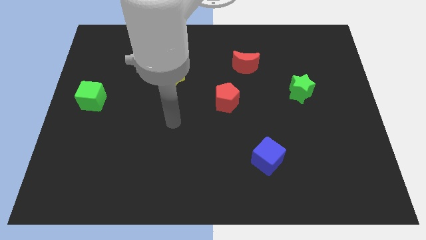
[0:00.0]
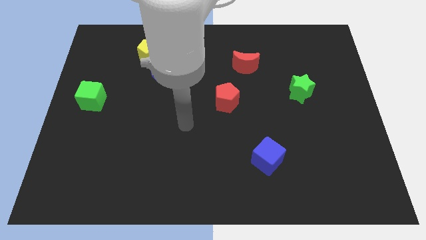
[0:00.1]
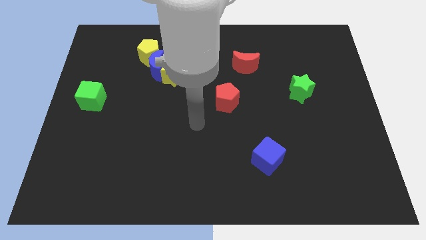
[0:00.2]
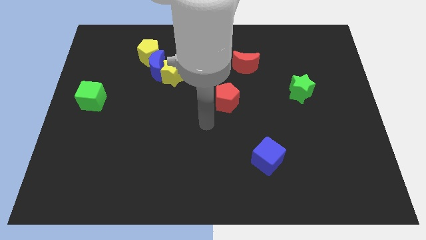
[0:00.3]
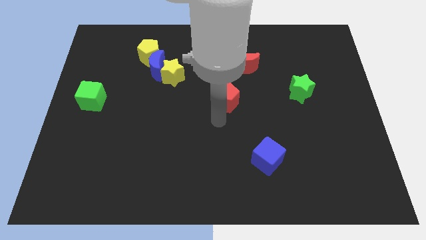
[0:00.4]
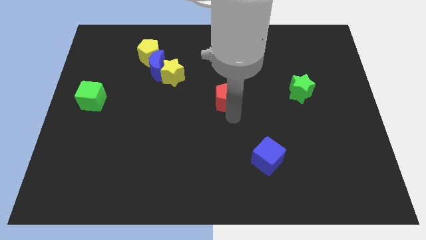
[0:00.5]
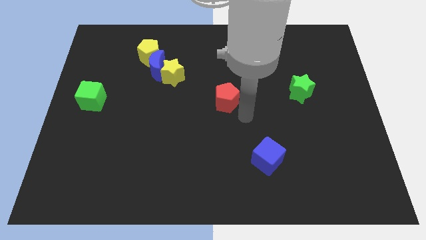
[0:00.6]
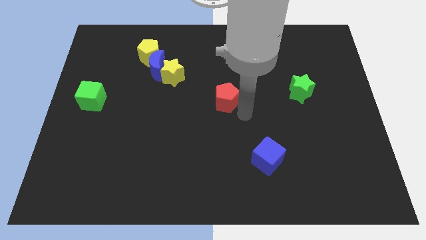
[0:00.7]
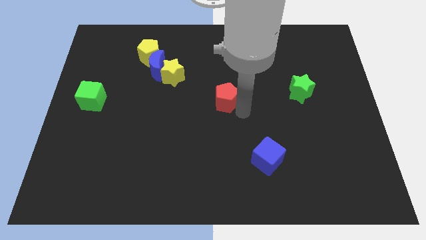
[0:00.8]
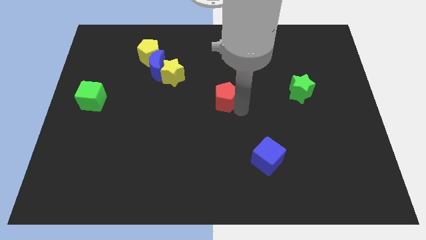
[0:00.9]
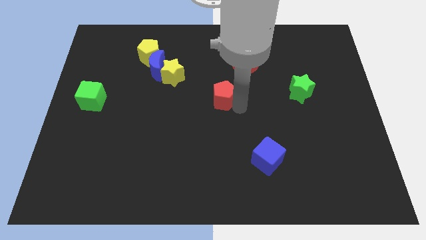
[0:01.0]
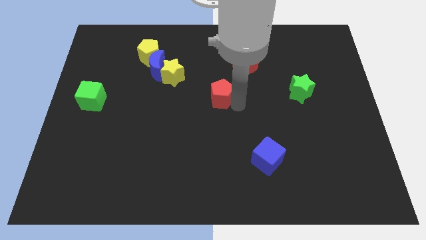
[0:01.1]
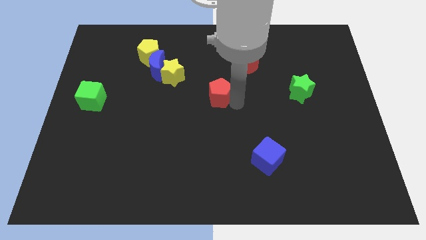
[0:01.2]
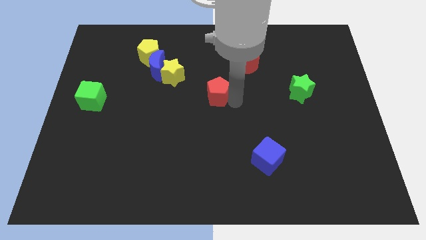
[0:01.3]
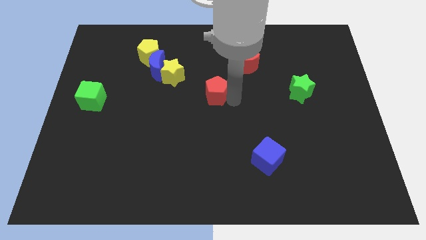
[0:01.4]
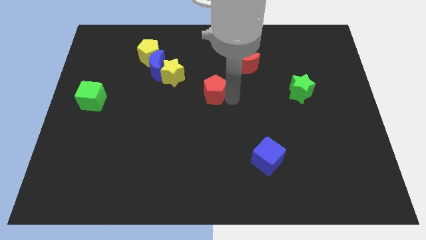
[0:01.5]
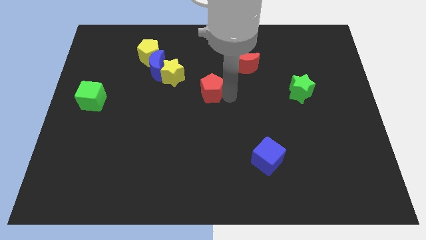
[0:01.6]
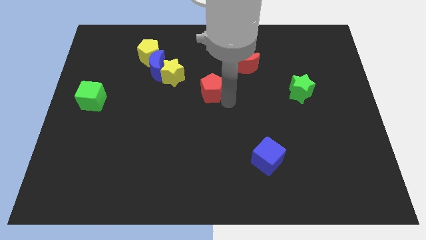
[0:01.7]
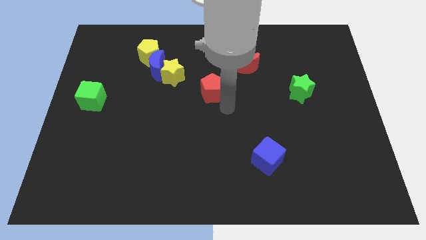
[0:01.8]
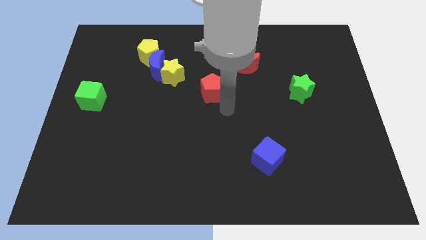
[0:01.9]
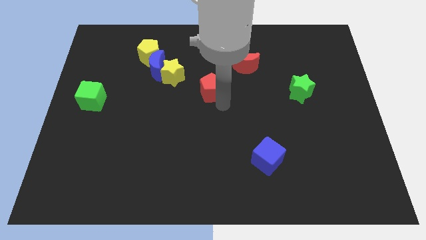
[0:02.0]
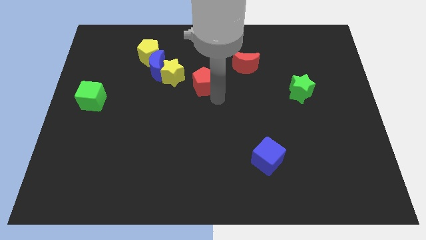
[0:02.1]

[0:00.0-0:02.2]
push the red pentagon a little up and left diagonally

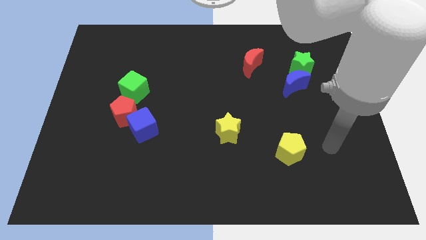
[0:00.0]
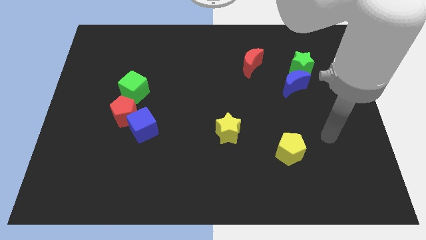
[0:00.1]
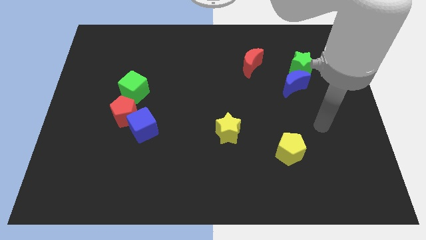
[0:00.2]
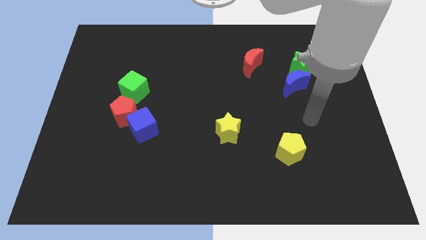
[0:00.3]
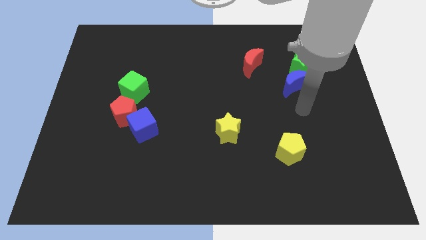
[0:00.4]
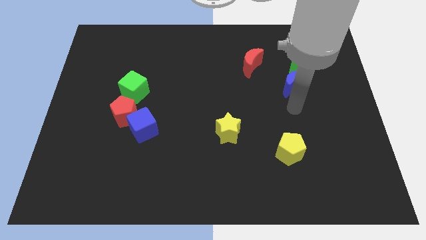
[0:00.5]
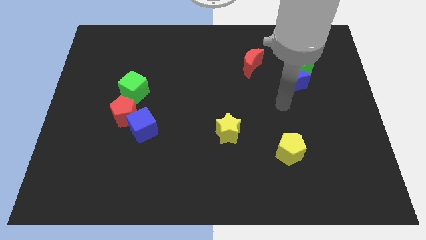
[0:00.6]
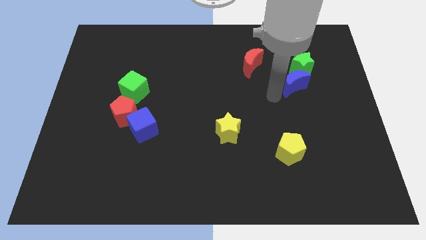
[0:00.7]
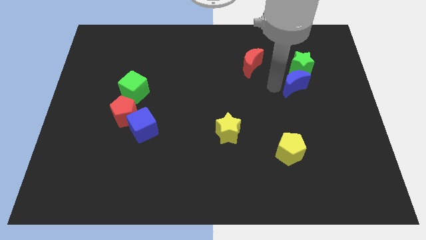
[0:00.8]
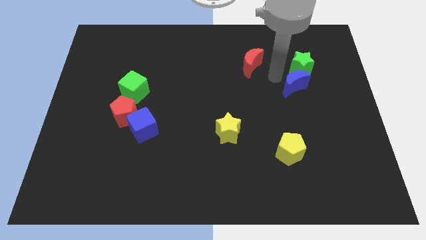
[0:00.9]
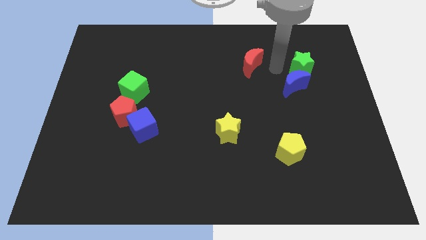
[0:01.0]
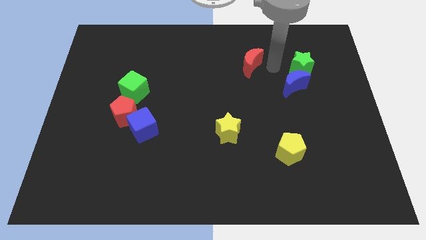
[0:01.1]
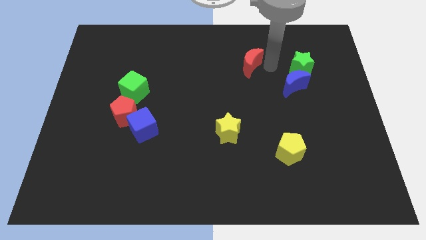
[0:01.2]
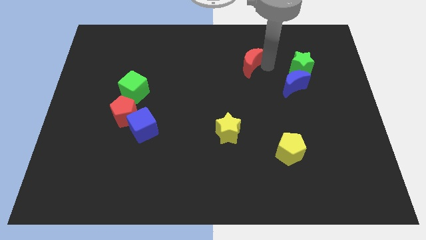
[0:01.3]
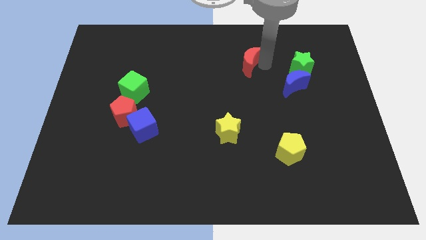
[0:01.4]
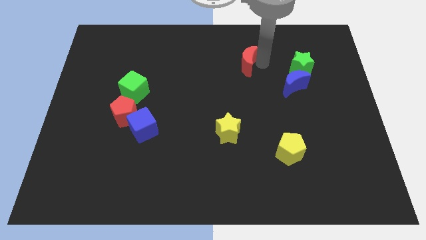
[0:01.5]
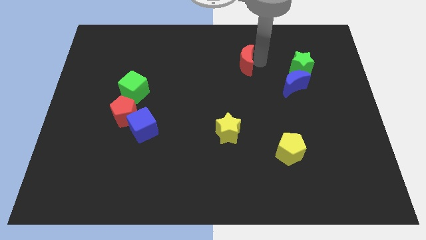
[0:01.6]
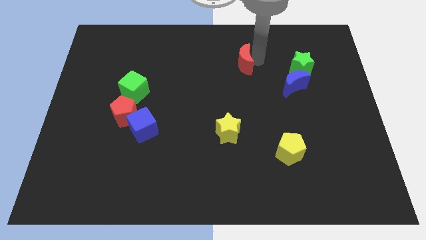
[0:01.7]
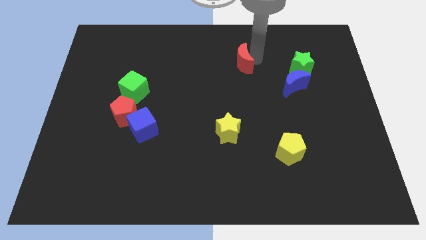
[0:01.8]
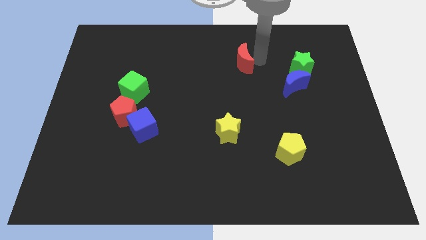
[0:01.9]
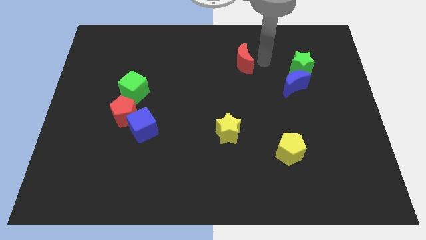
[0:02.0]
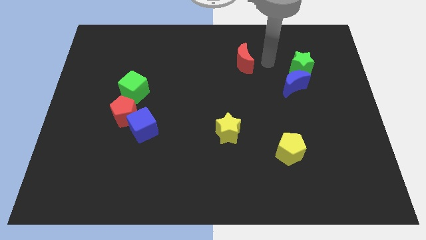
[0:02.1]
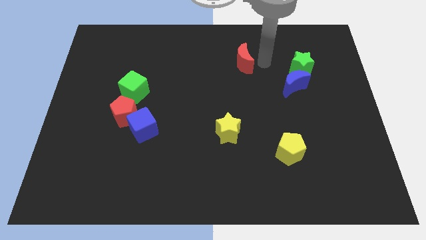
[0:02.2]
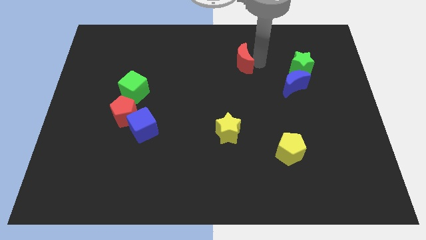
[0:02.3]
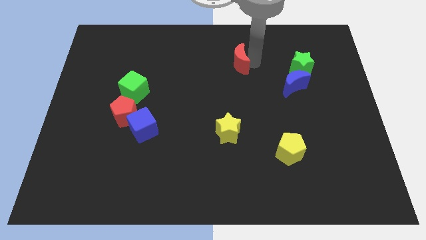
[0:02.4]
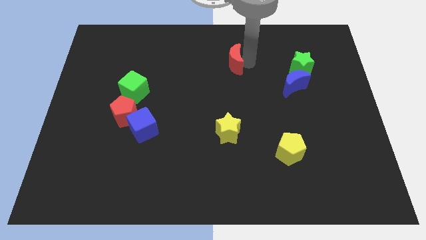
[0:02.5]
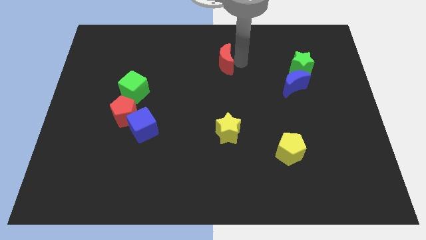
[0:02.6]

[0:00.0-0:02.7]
push the red moon left a little bit

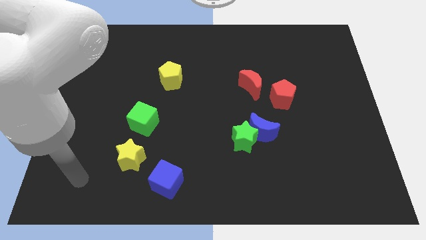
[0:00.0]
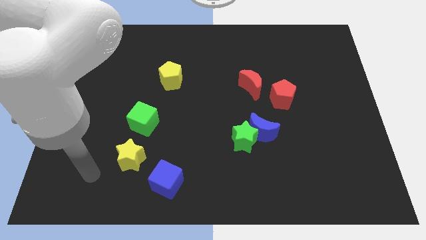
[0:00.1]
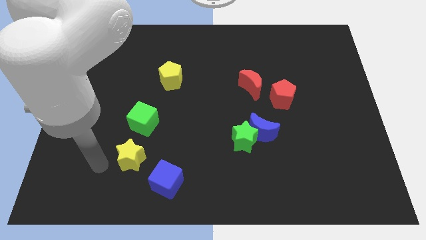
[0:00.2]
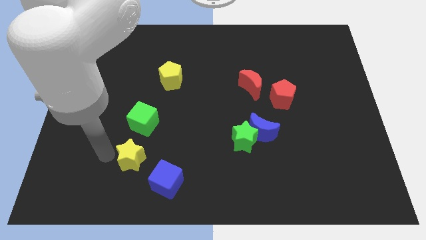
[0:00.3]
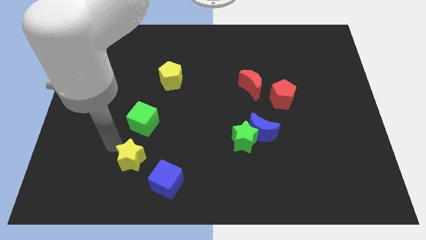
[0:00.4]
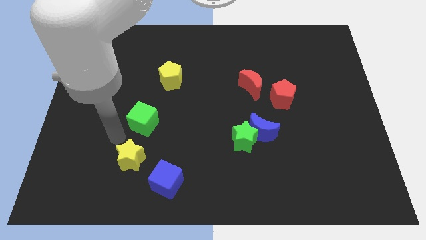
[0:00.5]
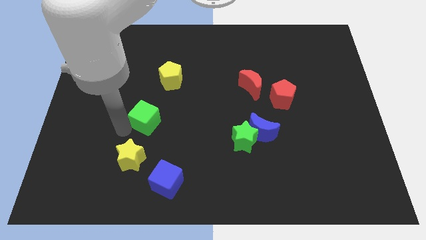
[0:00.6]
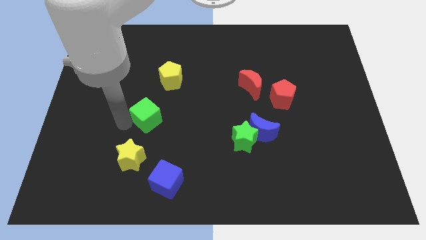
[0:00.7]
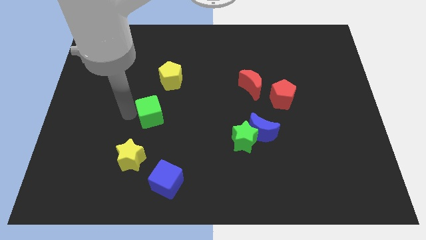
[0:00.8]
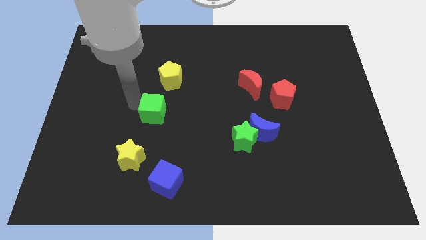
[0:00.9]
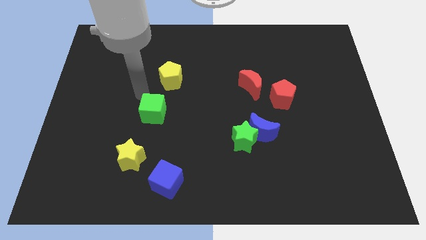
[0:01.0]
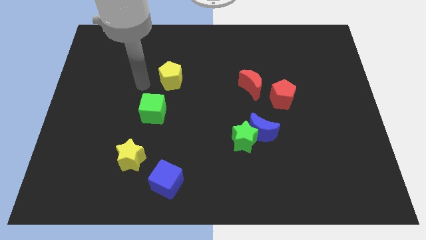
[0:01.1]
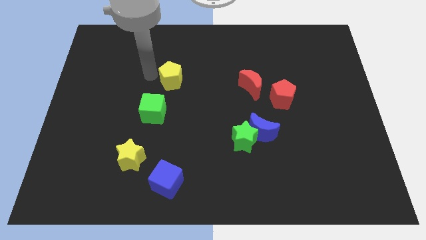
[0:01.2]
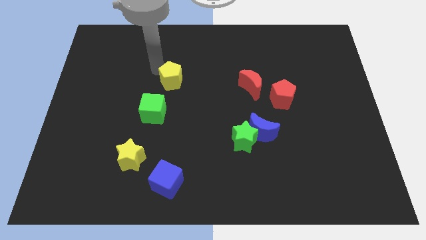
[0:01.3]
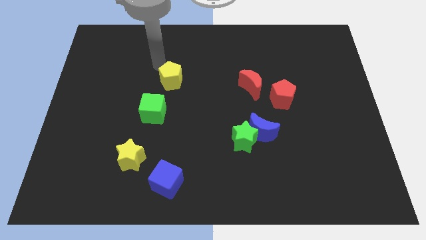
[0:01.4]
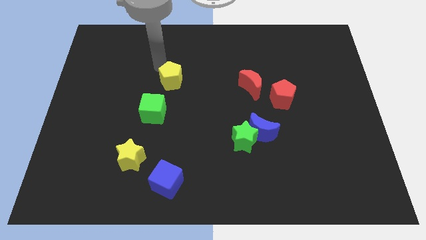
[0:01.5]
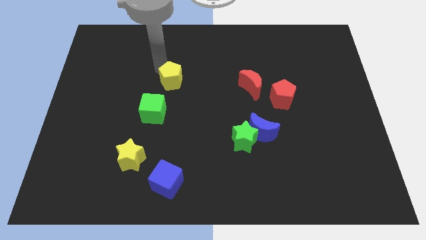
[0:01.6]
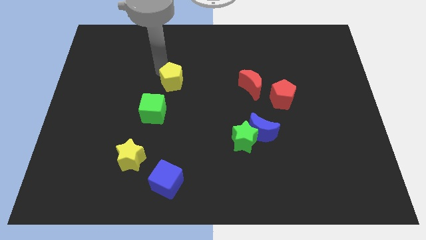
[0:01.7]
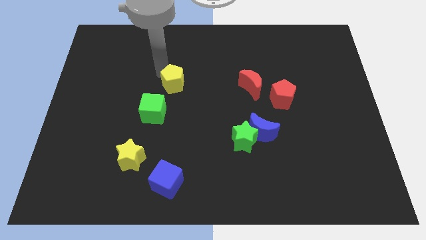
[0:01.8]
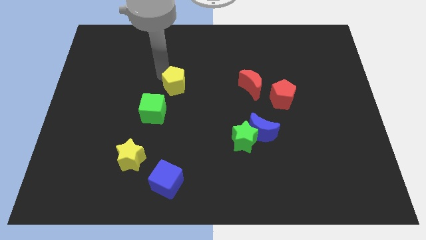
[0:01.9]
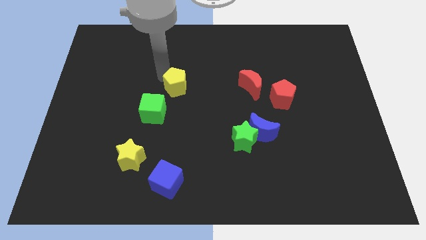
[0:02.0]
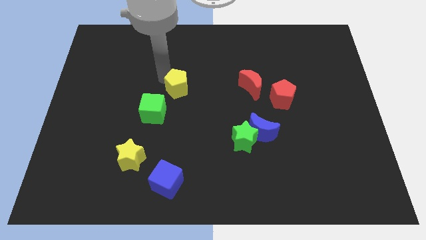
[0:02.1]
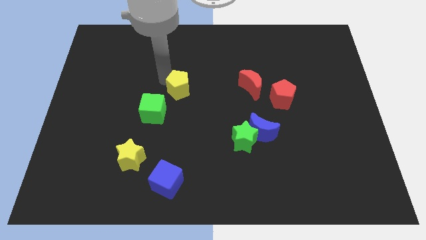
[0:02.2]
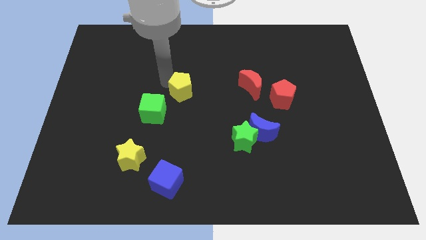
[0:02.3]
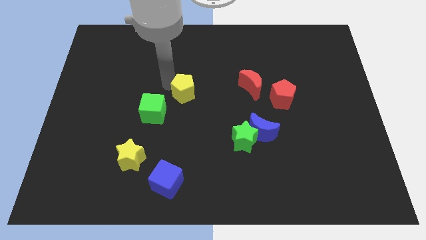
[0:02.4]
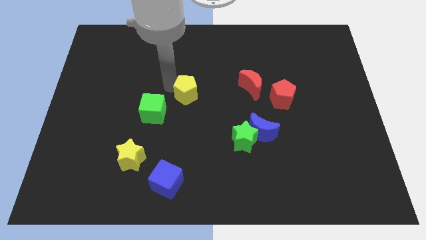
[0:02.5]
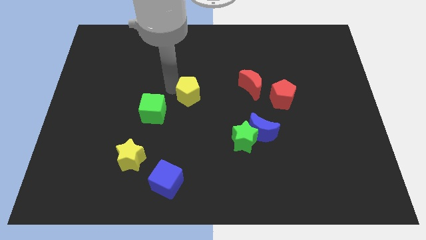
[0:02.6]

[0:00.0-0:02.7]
slightly push the yellow pentagon down and right
